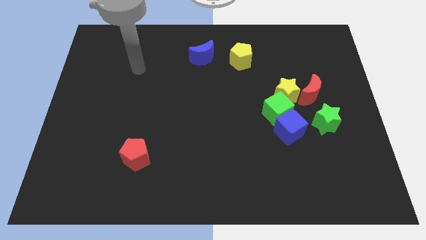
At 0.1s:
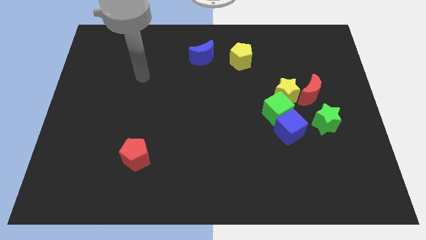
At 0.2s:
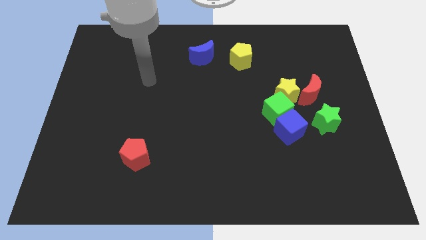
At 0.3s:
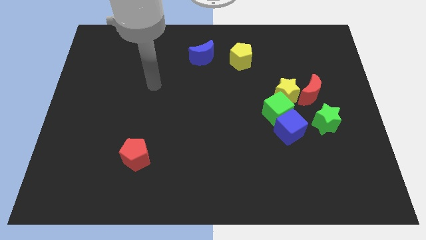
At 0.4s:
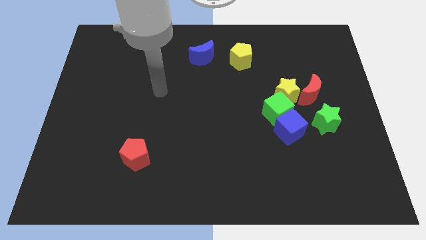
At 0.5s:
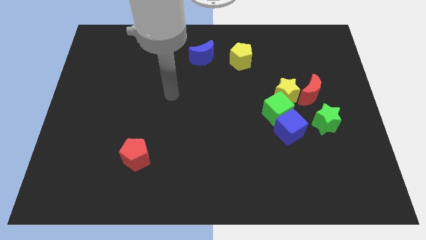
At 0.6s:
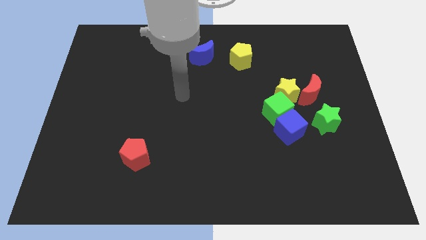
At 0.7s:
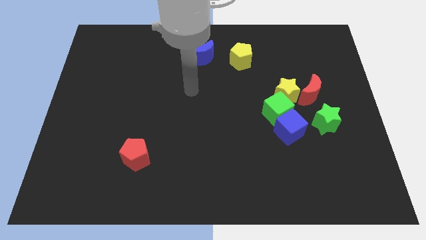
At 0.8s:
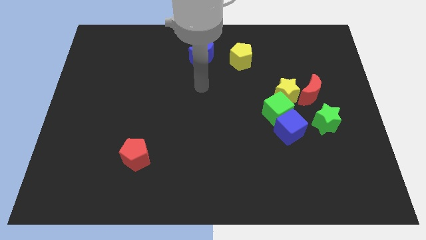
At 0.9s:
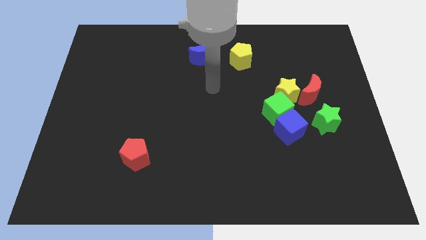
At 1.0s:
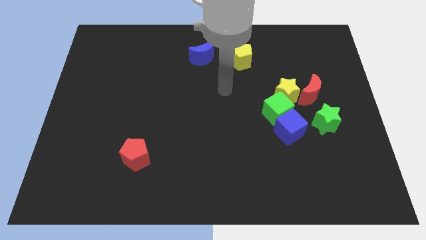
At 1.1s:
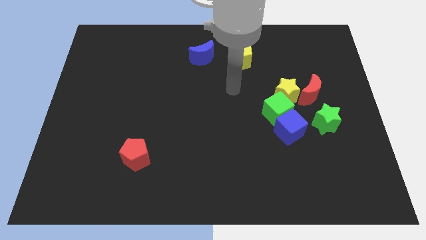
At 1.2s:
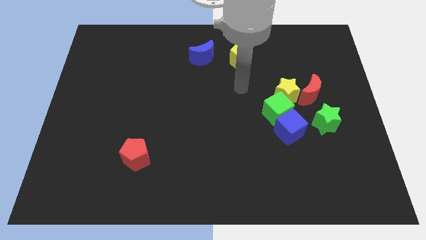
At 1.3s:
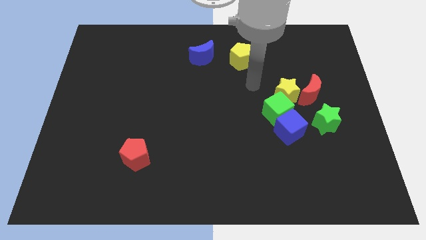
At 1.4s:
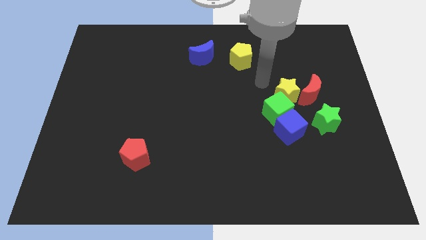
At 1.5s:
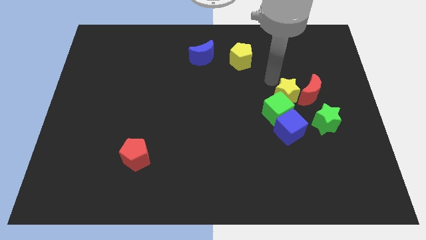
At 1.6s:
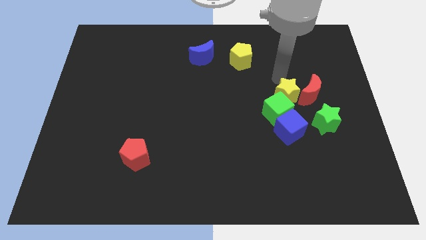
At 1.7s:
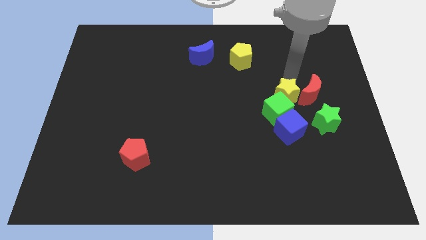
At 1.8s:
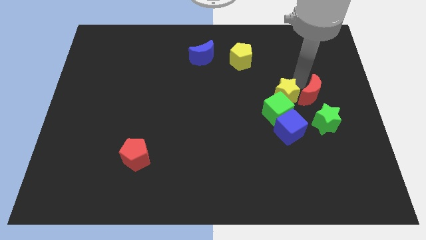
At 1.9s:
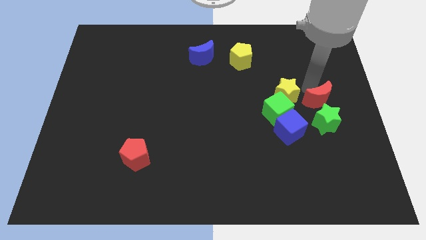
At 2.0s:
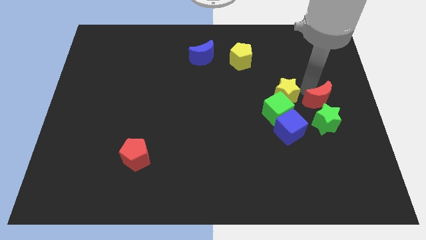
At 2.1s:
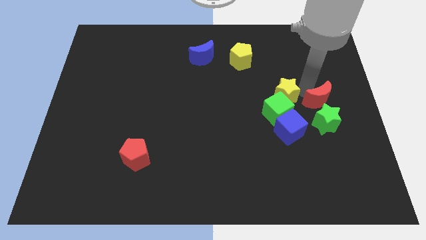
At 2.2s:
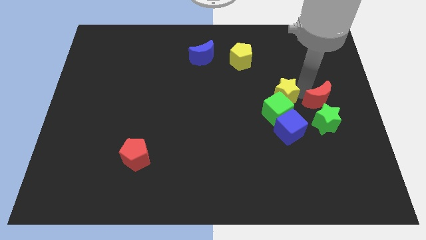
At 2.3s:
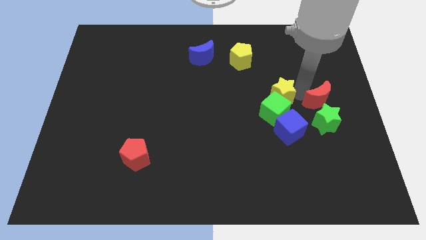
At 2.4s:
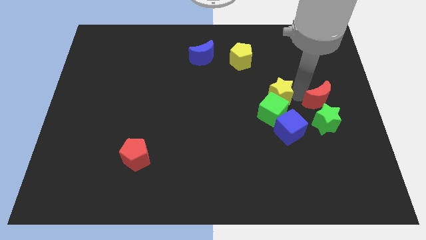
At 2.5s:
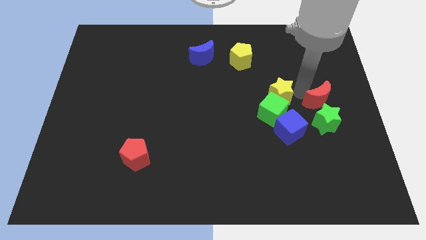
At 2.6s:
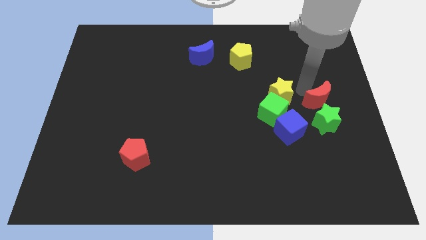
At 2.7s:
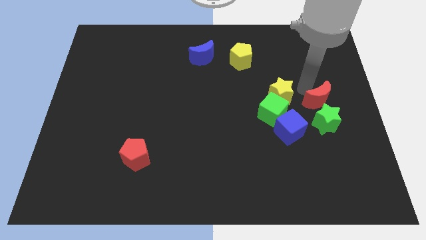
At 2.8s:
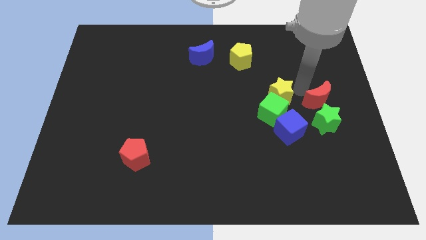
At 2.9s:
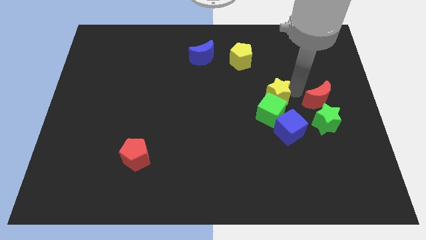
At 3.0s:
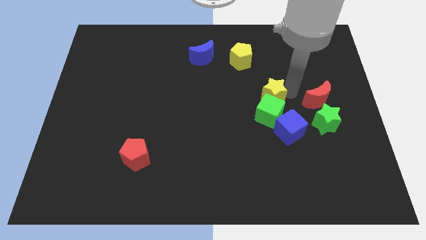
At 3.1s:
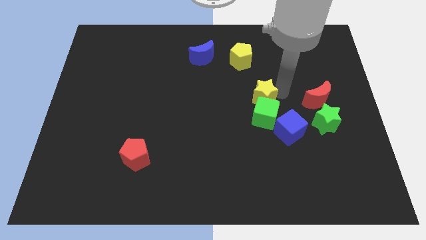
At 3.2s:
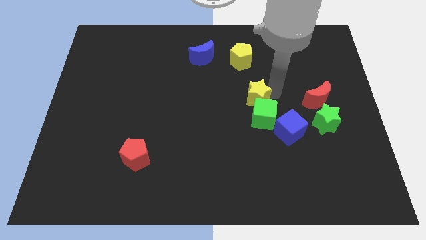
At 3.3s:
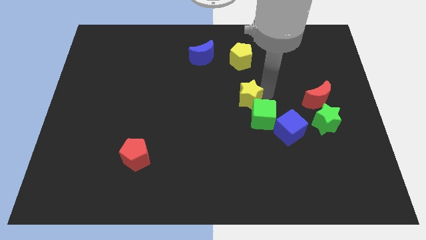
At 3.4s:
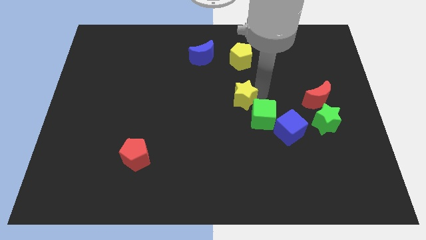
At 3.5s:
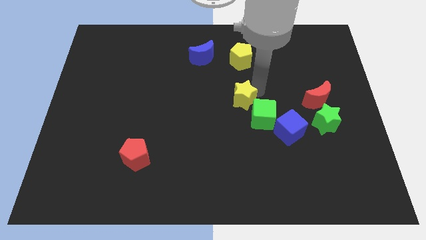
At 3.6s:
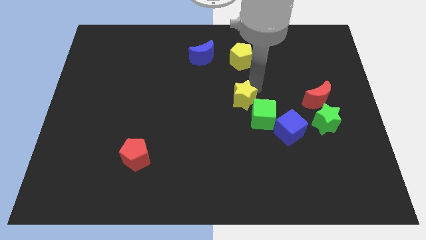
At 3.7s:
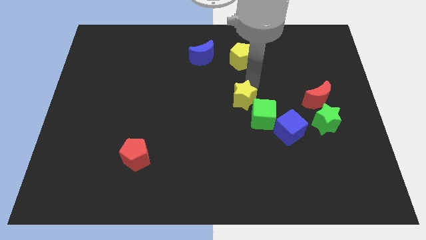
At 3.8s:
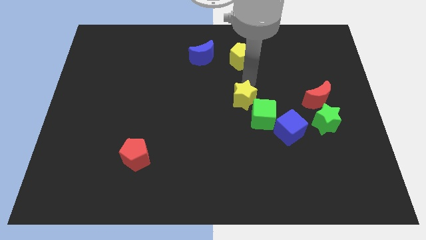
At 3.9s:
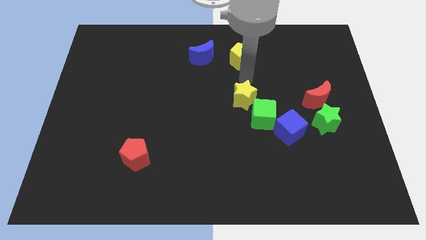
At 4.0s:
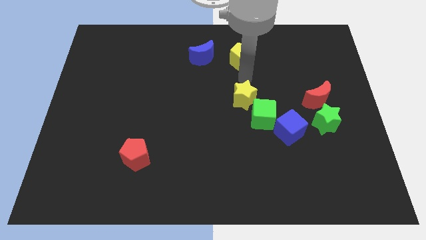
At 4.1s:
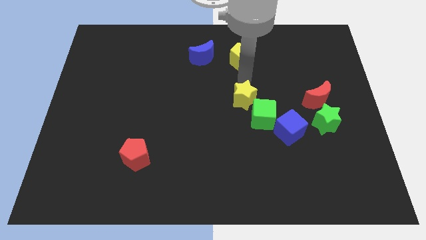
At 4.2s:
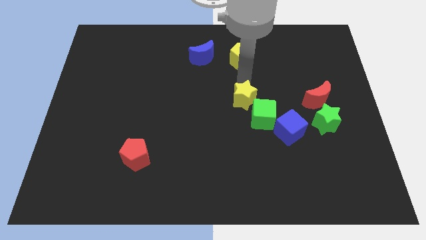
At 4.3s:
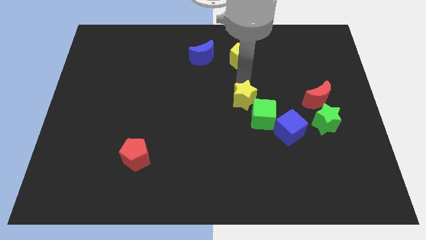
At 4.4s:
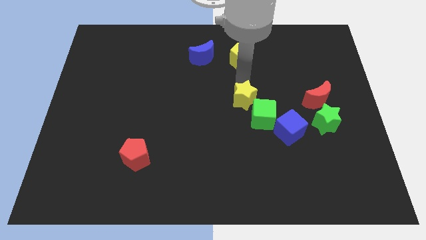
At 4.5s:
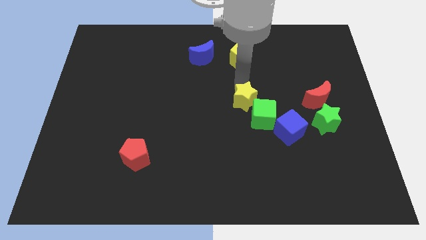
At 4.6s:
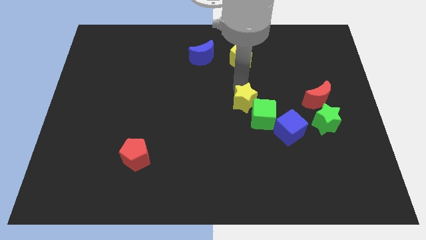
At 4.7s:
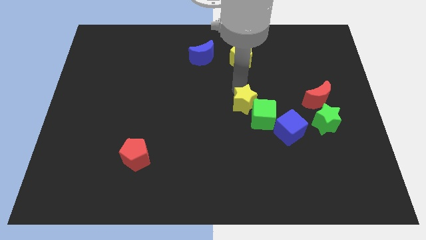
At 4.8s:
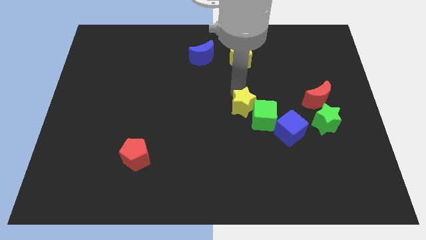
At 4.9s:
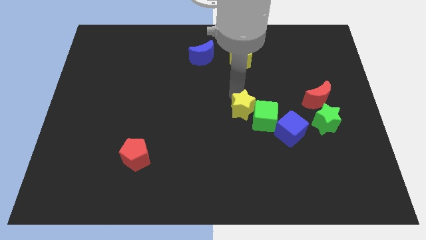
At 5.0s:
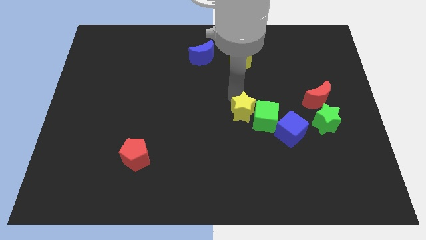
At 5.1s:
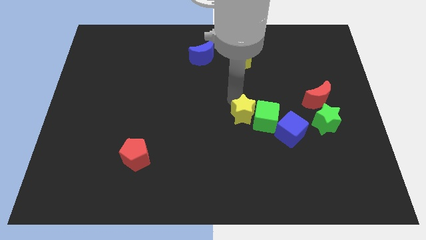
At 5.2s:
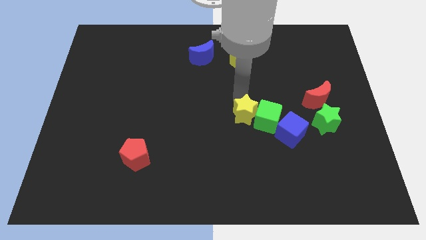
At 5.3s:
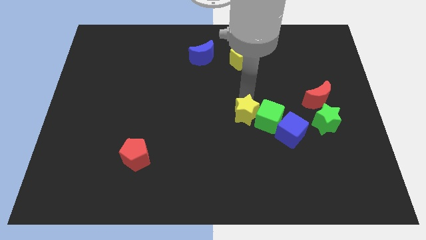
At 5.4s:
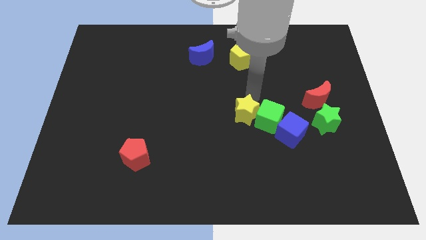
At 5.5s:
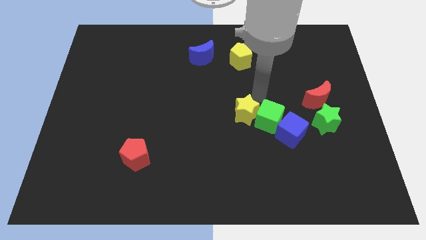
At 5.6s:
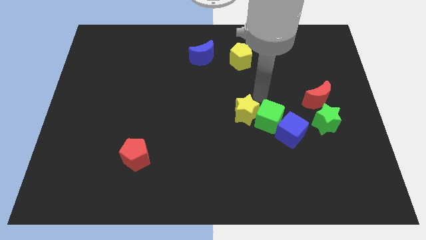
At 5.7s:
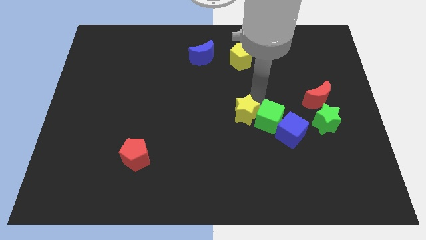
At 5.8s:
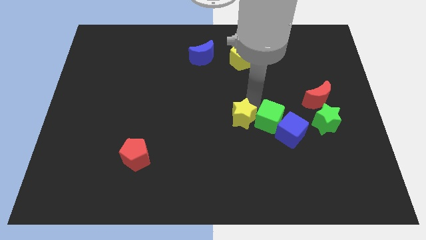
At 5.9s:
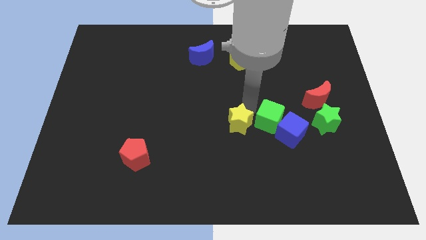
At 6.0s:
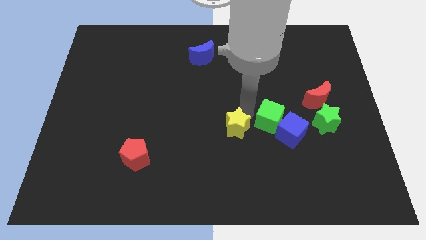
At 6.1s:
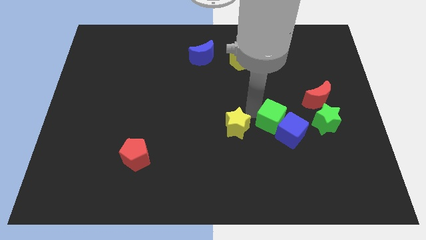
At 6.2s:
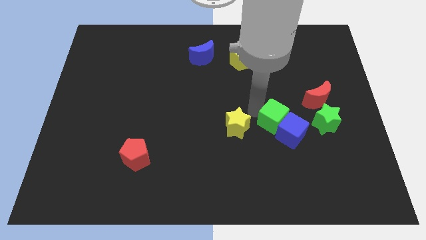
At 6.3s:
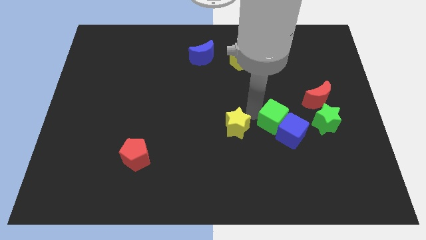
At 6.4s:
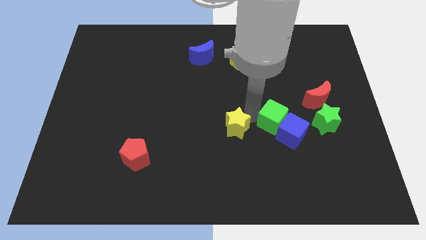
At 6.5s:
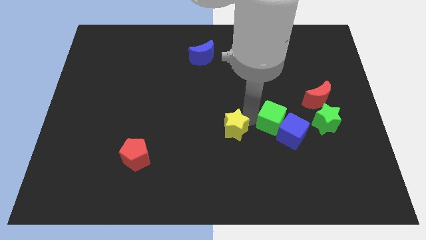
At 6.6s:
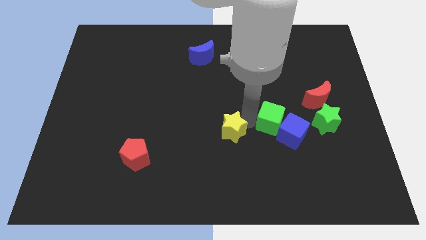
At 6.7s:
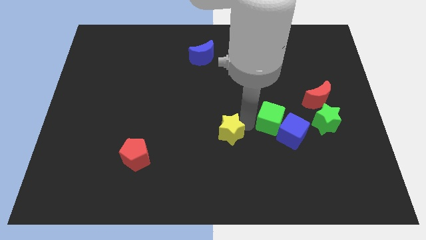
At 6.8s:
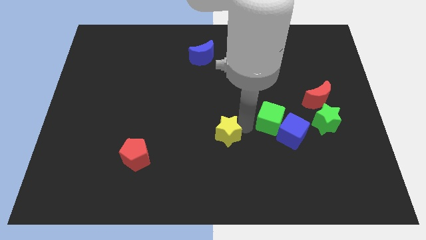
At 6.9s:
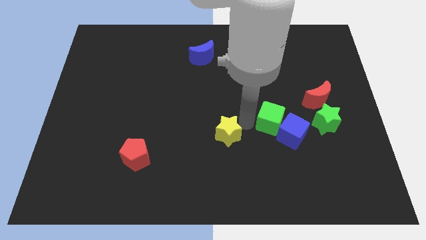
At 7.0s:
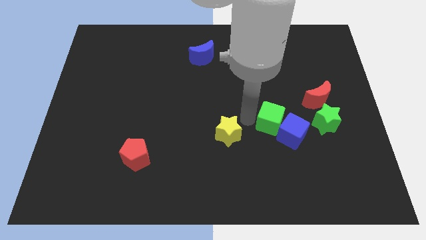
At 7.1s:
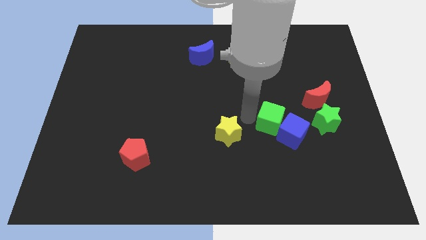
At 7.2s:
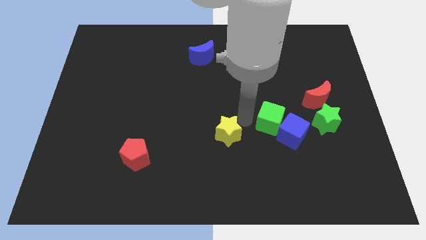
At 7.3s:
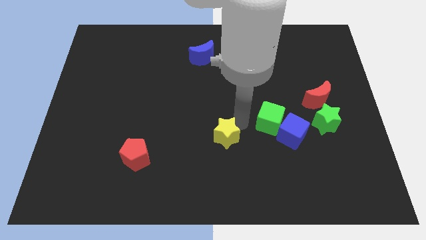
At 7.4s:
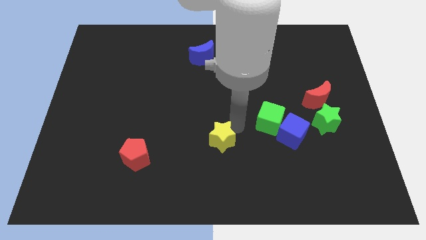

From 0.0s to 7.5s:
move the yellow star downwards and then to the left

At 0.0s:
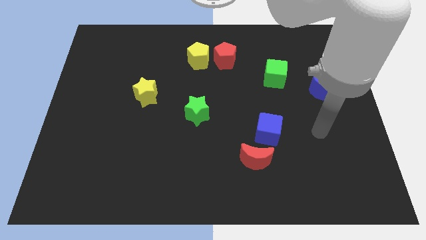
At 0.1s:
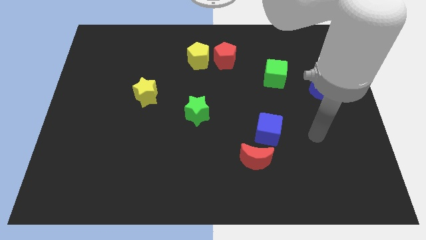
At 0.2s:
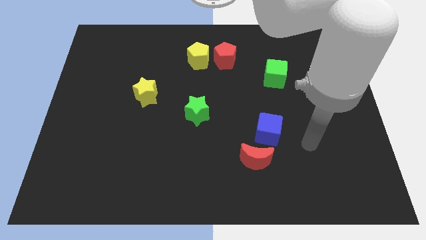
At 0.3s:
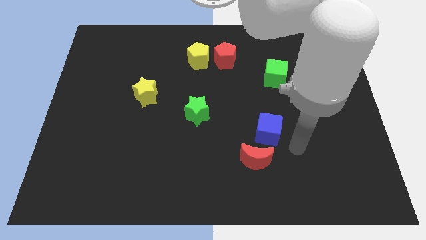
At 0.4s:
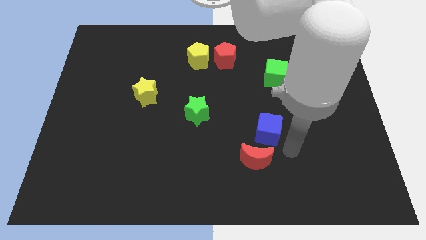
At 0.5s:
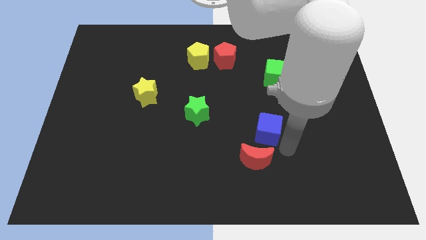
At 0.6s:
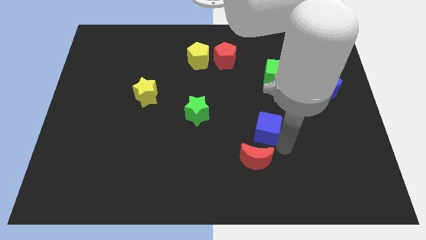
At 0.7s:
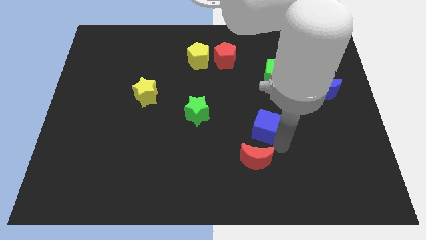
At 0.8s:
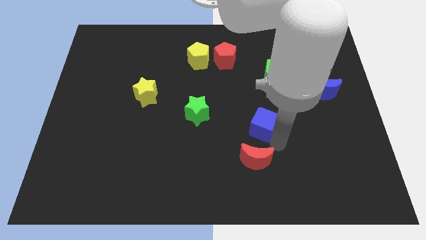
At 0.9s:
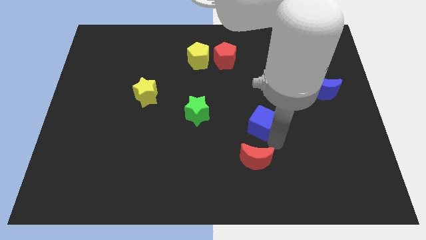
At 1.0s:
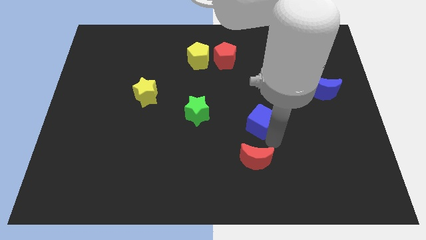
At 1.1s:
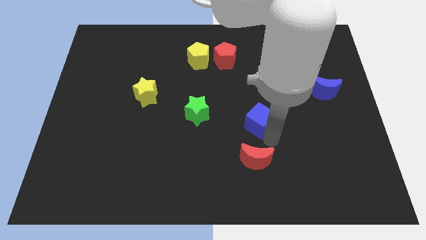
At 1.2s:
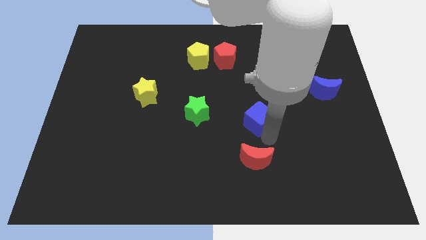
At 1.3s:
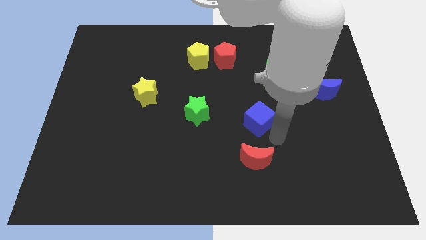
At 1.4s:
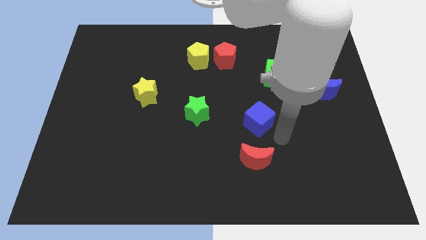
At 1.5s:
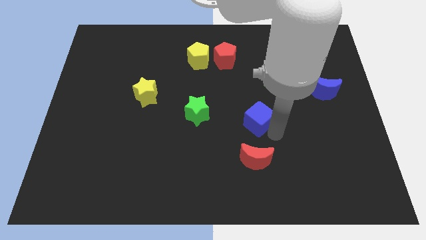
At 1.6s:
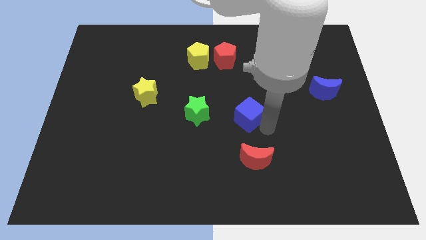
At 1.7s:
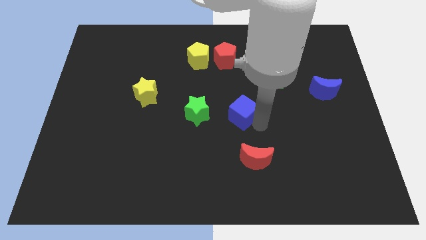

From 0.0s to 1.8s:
push the blue cube a little bit up and to the left diagonally
